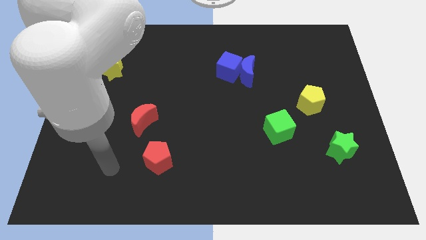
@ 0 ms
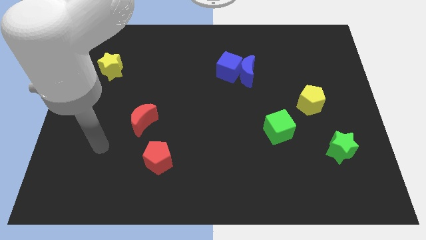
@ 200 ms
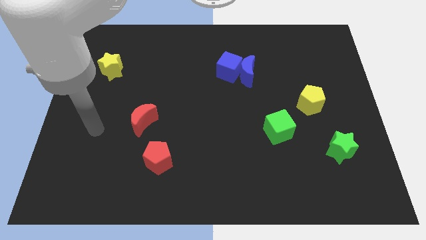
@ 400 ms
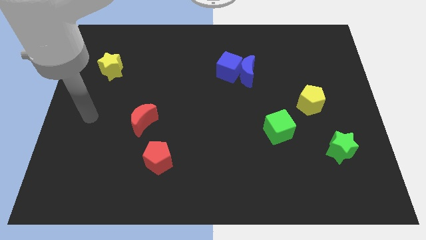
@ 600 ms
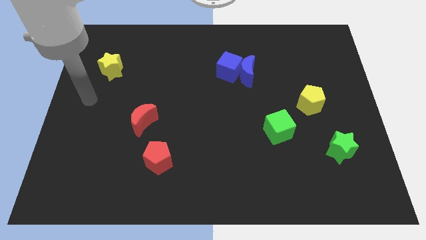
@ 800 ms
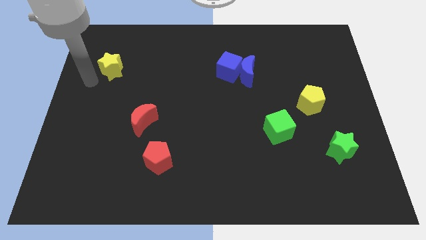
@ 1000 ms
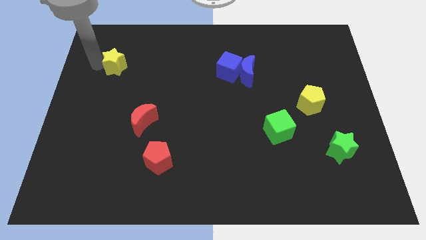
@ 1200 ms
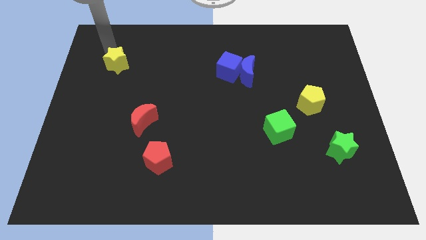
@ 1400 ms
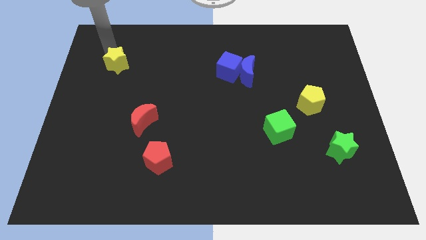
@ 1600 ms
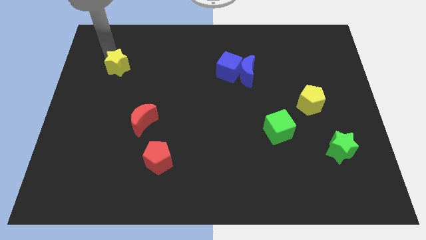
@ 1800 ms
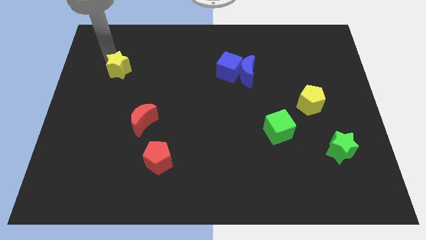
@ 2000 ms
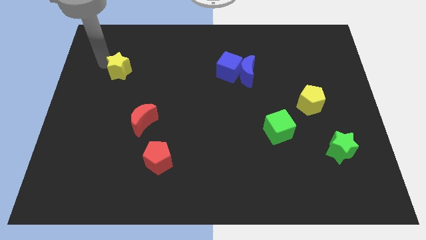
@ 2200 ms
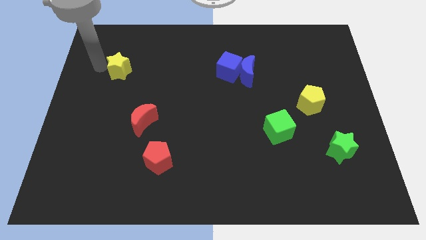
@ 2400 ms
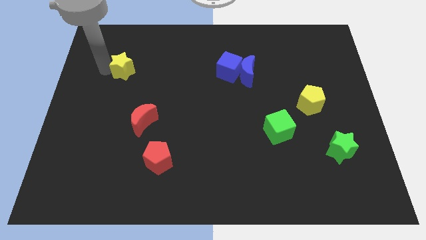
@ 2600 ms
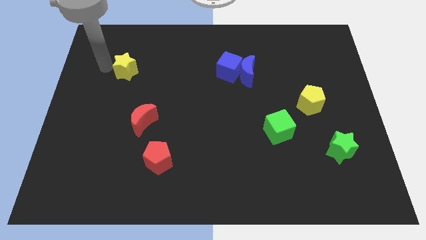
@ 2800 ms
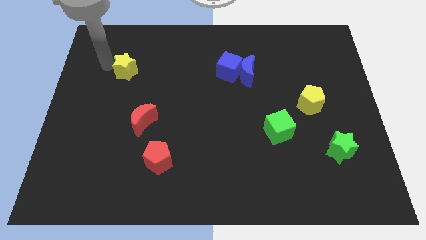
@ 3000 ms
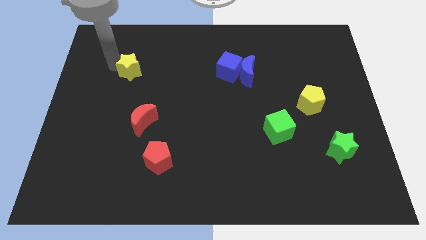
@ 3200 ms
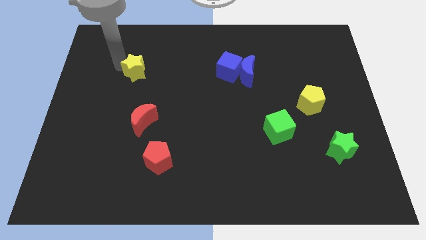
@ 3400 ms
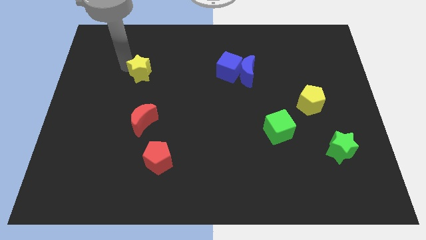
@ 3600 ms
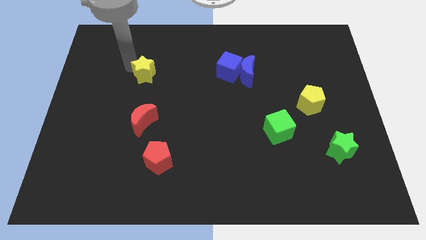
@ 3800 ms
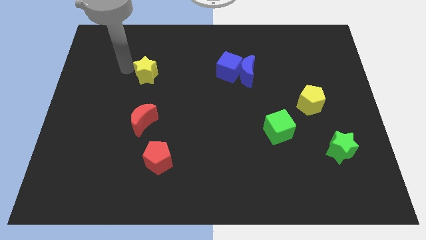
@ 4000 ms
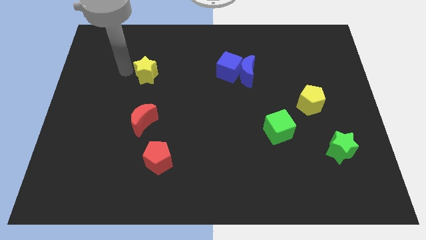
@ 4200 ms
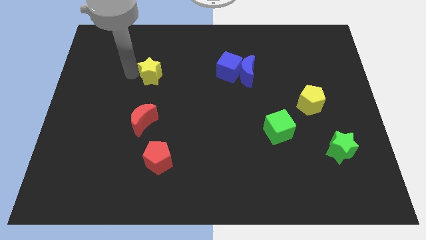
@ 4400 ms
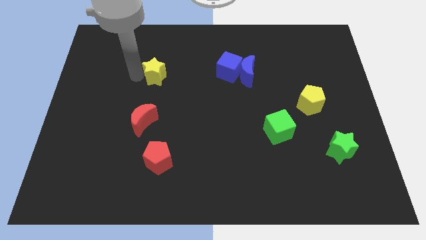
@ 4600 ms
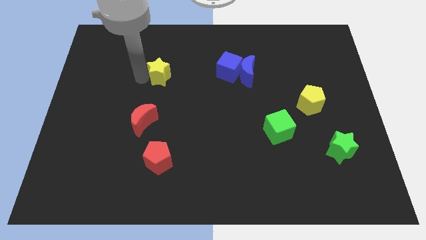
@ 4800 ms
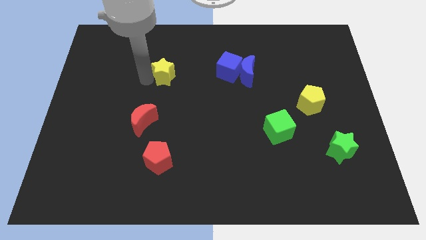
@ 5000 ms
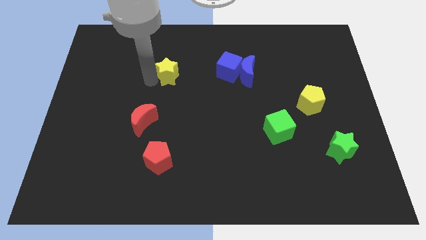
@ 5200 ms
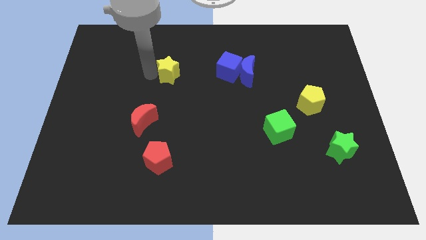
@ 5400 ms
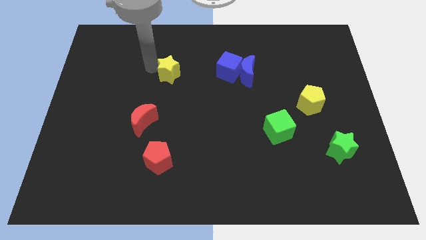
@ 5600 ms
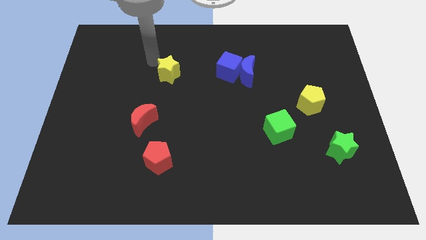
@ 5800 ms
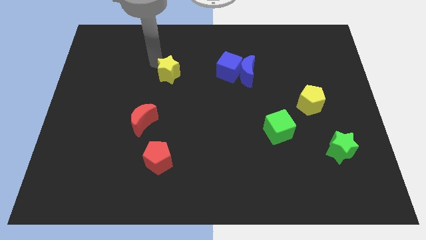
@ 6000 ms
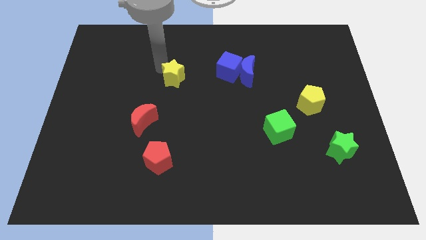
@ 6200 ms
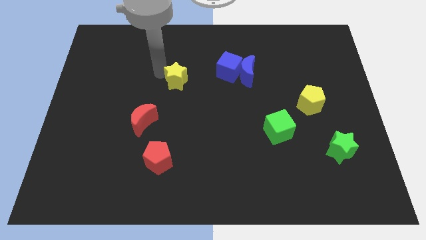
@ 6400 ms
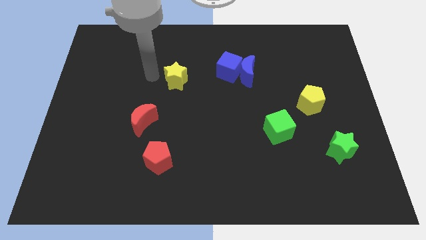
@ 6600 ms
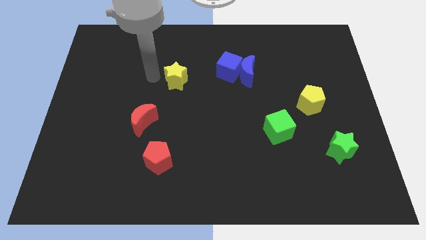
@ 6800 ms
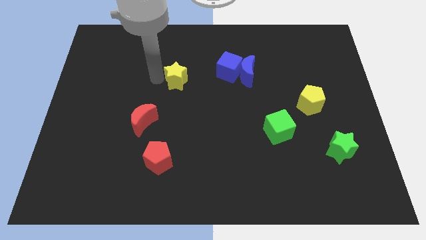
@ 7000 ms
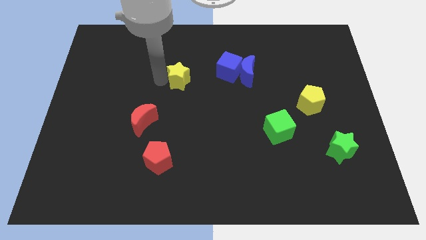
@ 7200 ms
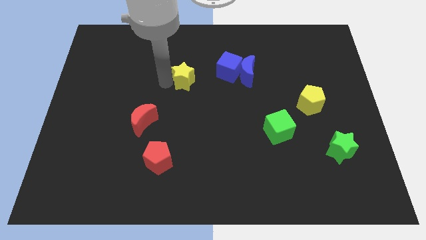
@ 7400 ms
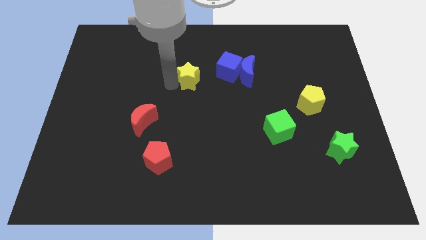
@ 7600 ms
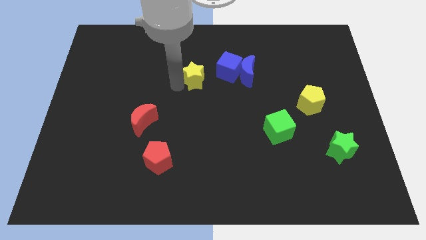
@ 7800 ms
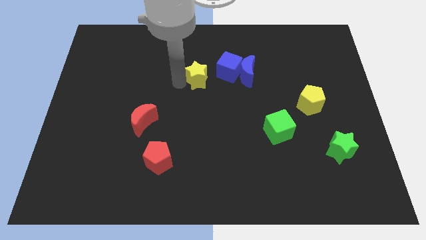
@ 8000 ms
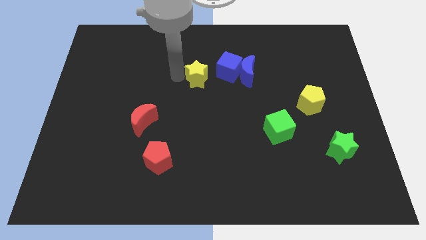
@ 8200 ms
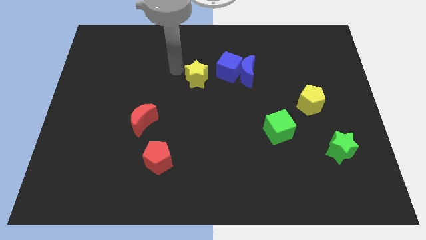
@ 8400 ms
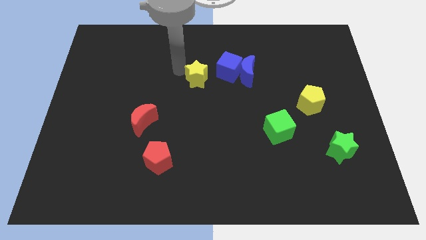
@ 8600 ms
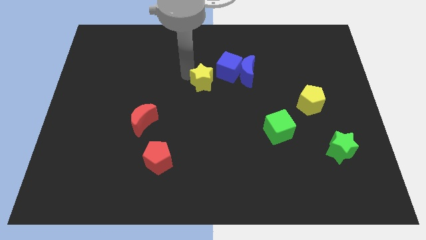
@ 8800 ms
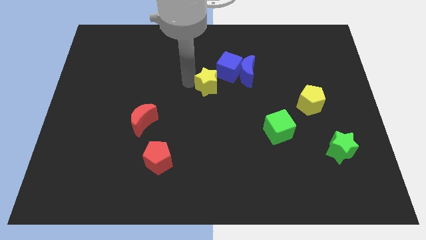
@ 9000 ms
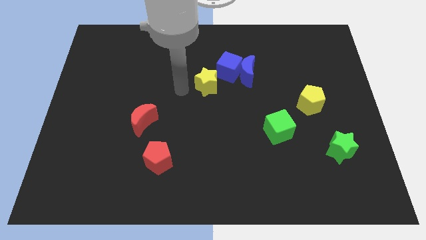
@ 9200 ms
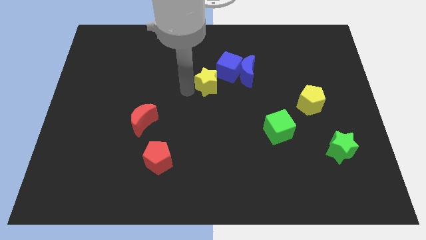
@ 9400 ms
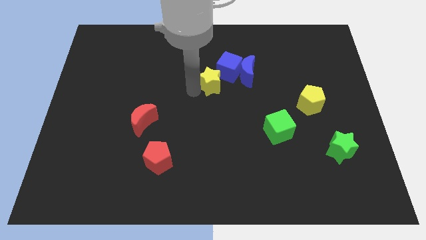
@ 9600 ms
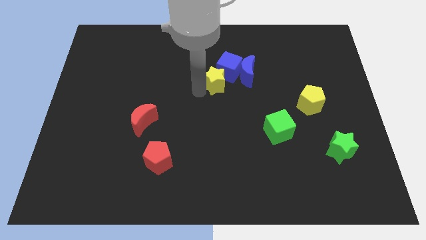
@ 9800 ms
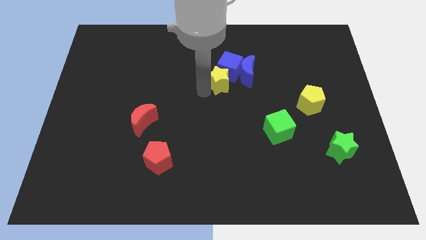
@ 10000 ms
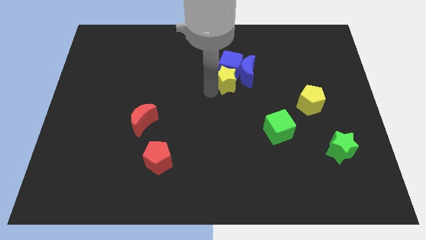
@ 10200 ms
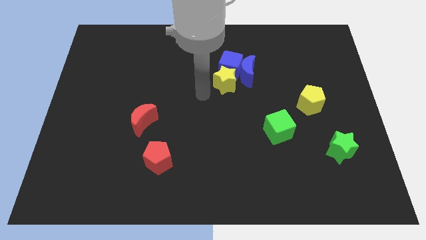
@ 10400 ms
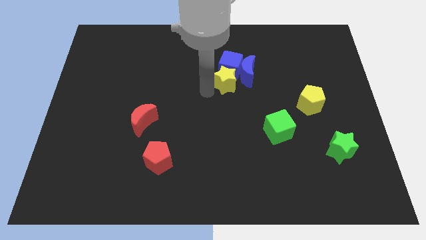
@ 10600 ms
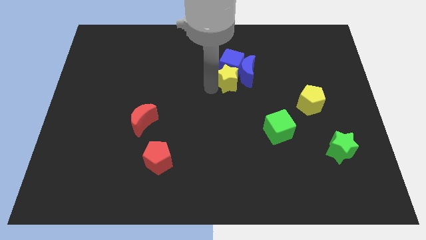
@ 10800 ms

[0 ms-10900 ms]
move the yellow star to the blue moon

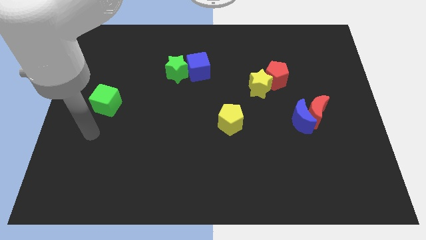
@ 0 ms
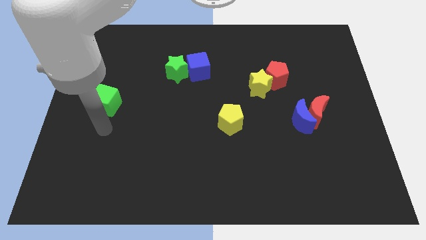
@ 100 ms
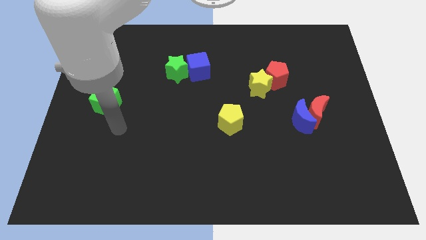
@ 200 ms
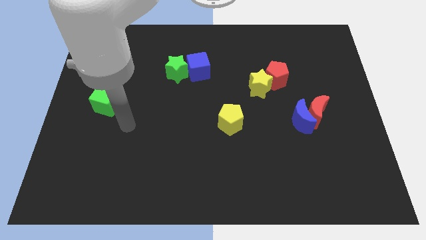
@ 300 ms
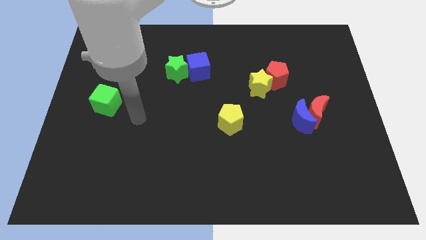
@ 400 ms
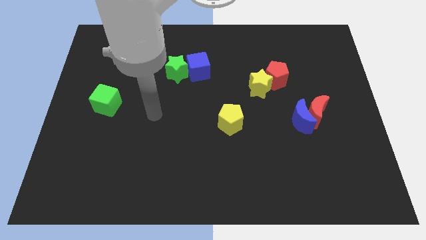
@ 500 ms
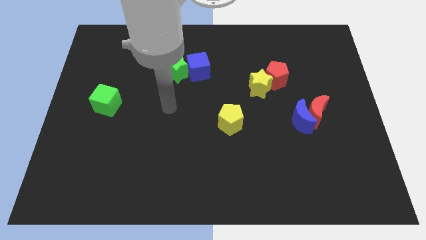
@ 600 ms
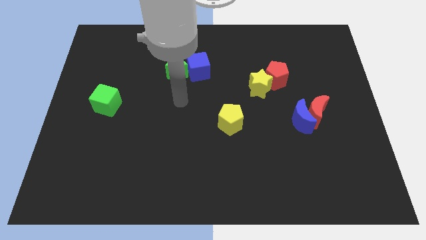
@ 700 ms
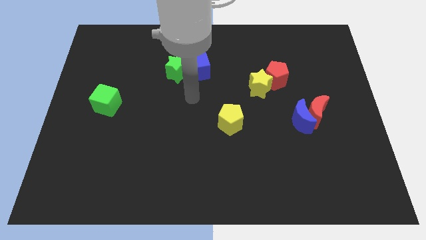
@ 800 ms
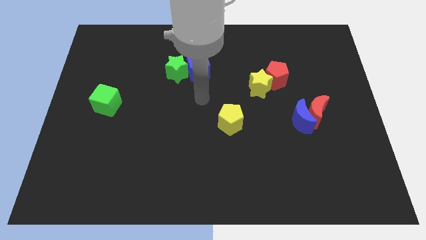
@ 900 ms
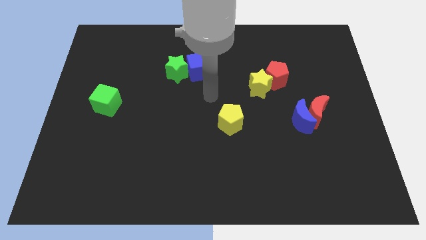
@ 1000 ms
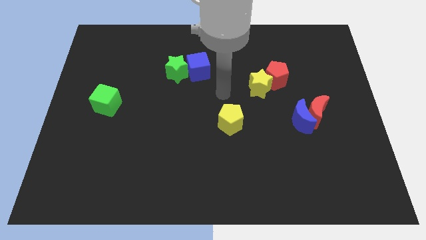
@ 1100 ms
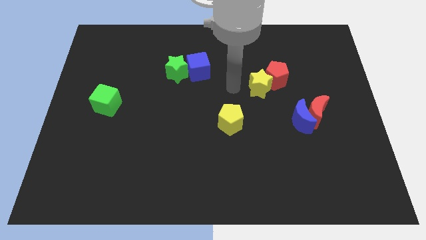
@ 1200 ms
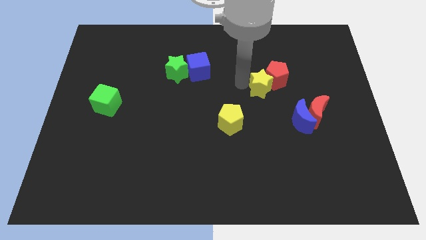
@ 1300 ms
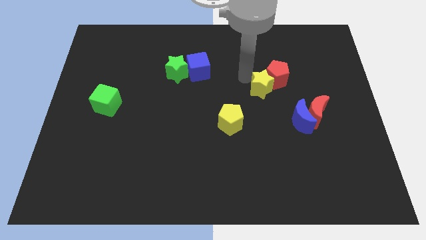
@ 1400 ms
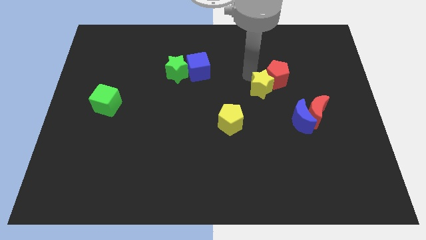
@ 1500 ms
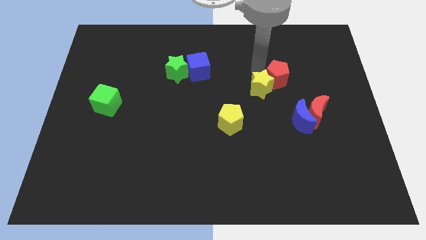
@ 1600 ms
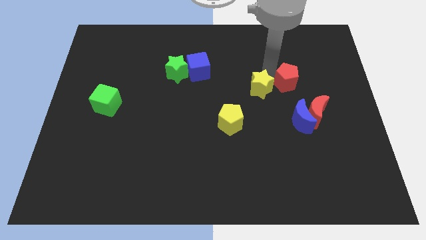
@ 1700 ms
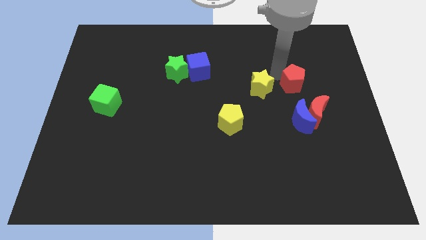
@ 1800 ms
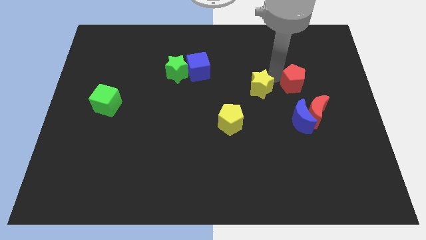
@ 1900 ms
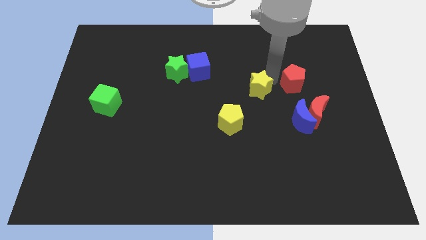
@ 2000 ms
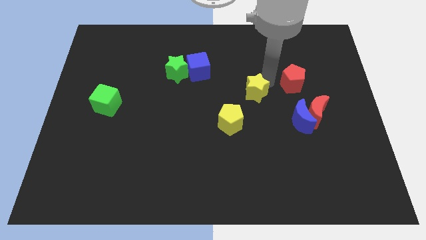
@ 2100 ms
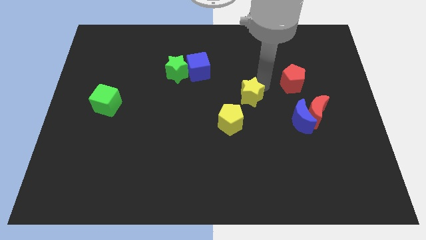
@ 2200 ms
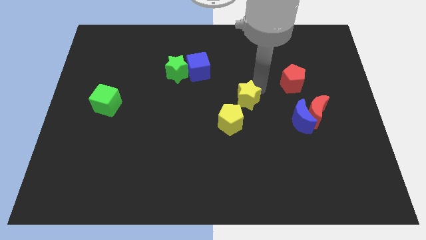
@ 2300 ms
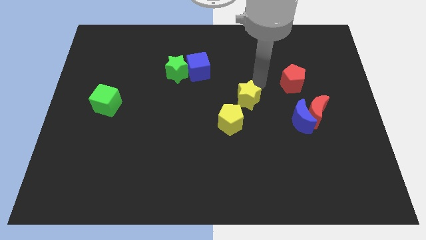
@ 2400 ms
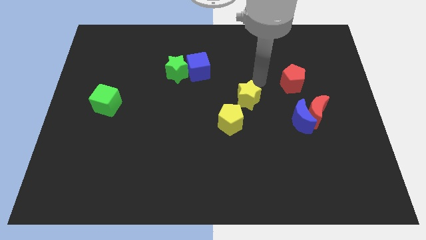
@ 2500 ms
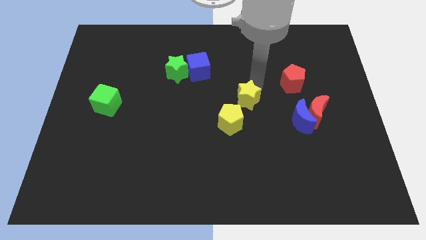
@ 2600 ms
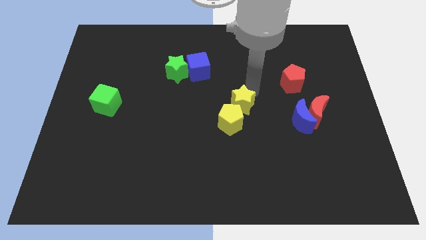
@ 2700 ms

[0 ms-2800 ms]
slide the yellow star next to the yellow pentagon
